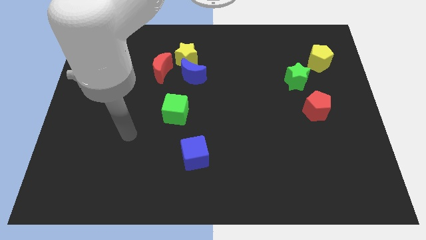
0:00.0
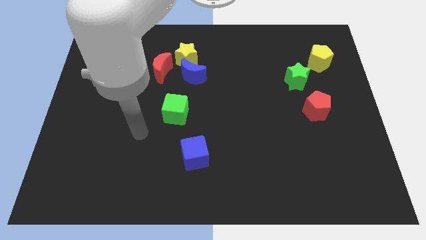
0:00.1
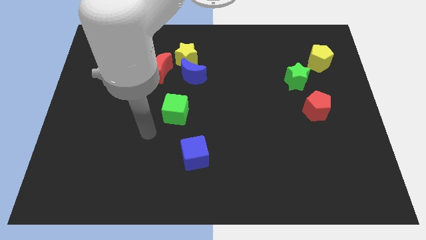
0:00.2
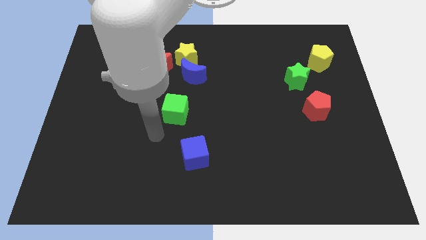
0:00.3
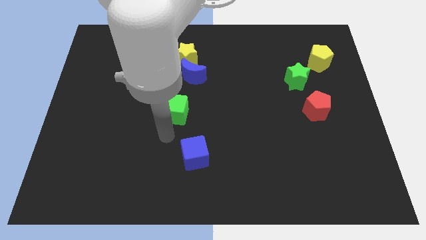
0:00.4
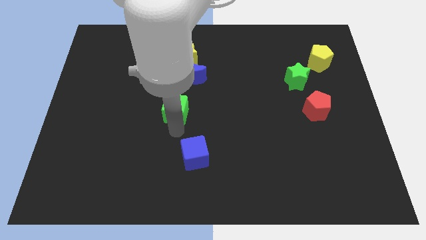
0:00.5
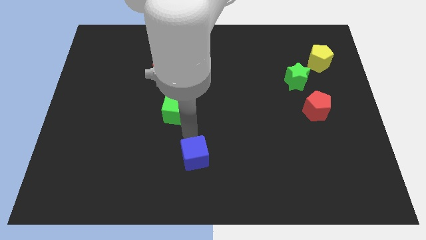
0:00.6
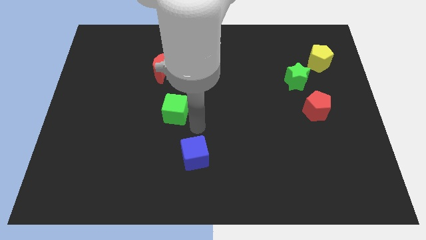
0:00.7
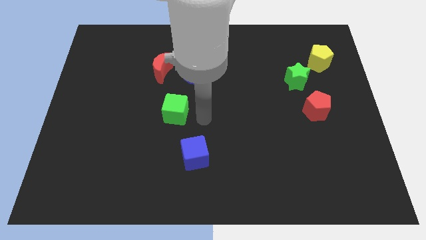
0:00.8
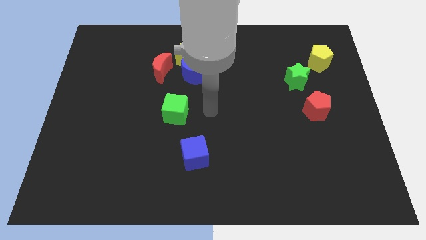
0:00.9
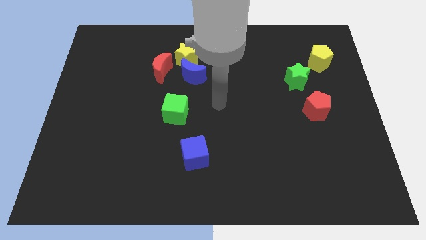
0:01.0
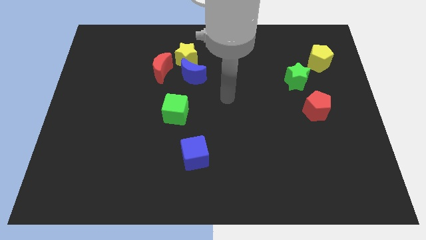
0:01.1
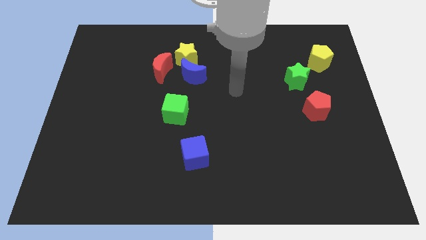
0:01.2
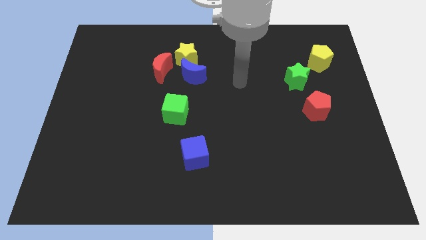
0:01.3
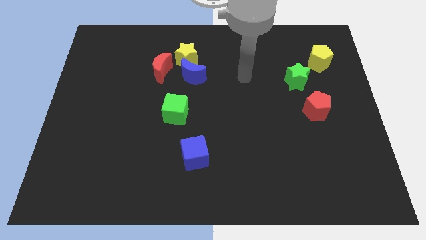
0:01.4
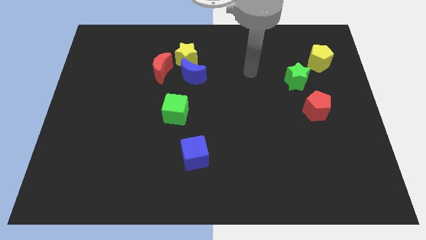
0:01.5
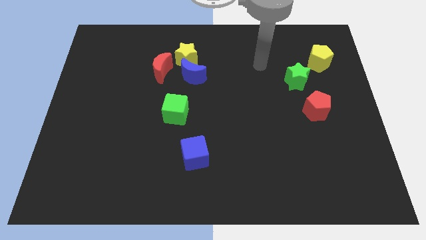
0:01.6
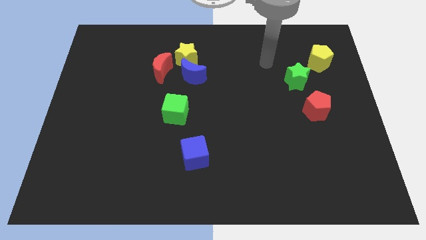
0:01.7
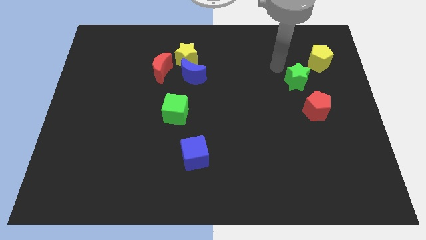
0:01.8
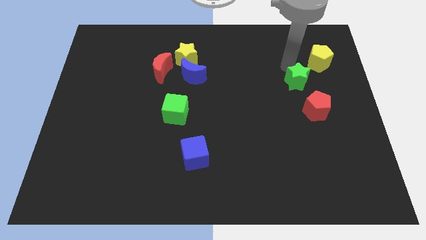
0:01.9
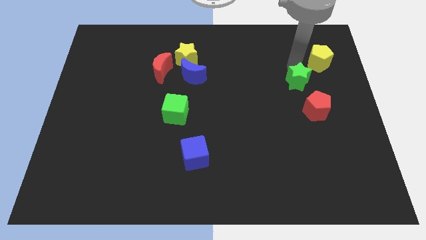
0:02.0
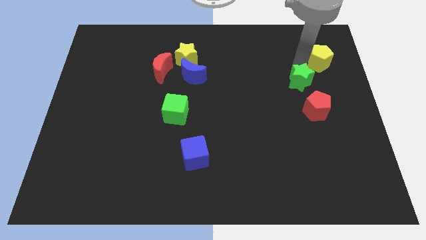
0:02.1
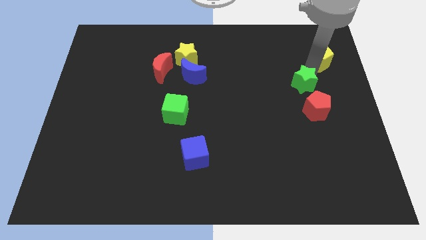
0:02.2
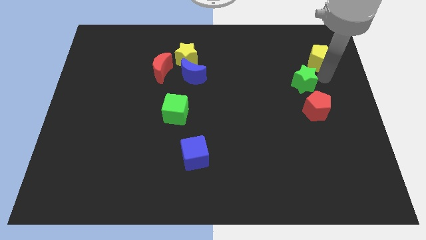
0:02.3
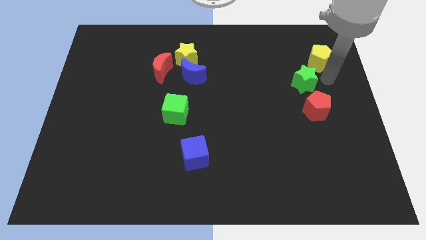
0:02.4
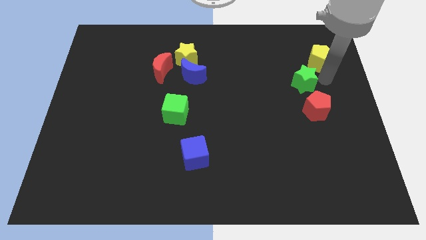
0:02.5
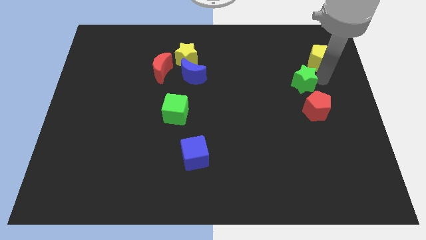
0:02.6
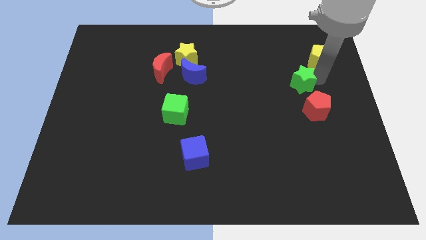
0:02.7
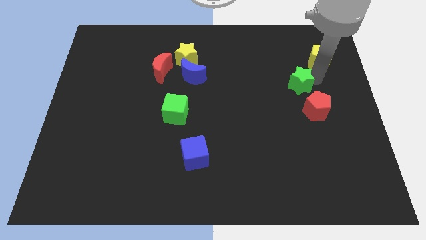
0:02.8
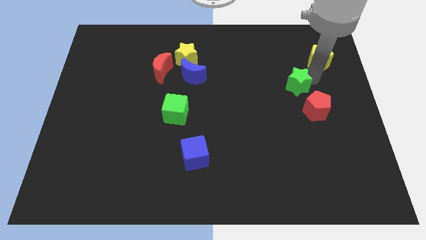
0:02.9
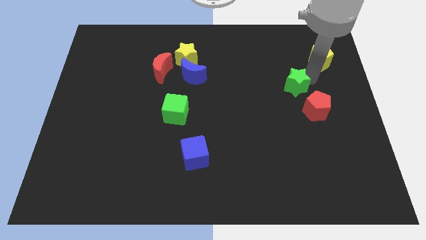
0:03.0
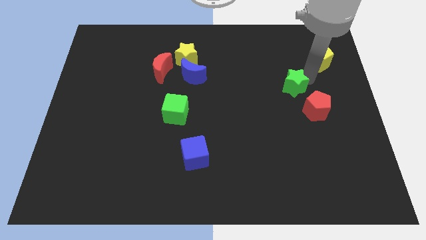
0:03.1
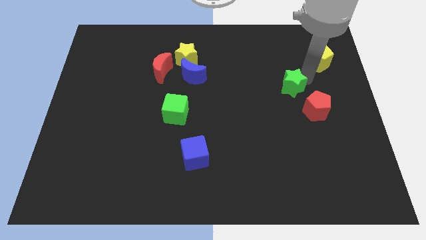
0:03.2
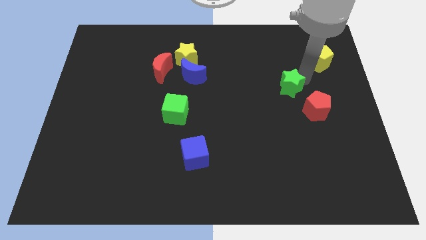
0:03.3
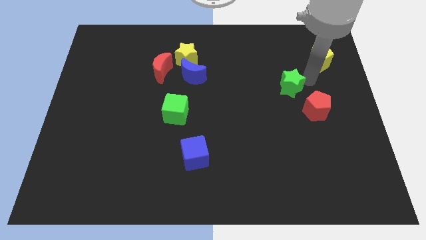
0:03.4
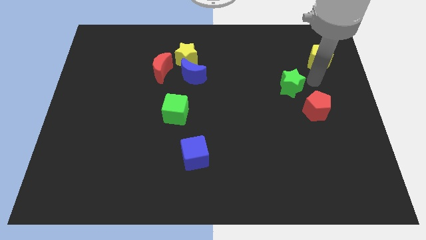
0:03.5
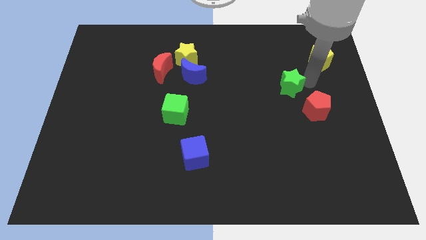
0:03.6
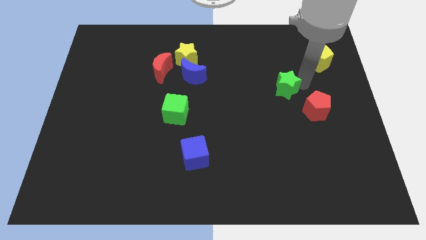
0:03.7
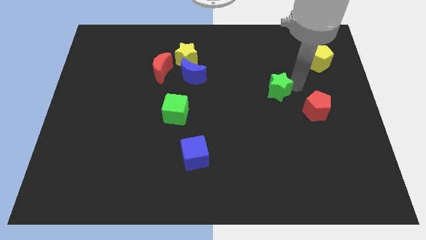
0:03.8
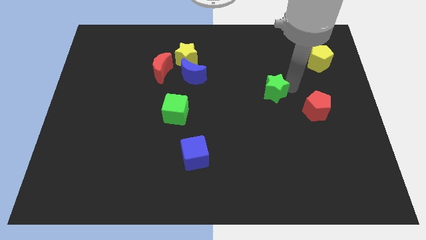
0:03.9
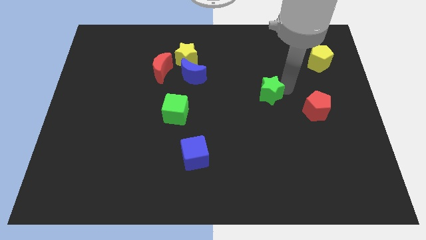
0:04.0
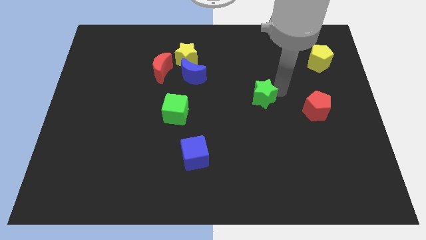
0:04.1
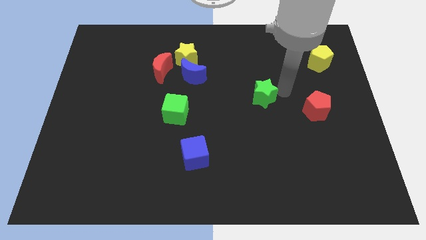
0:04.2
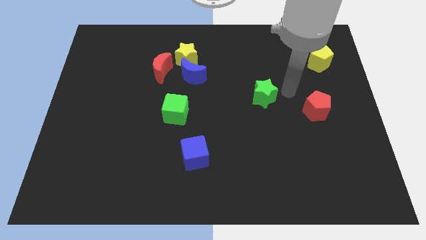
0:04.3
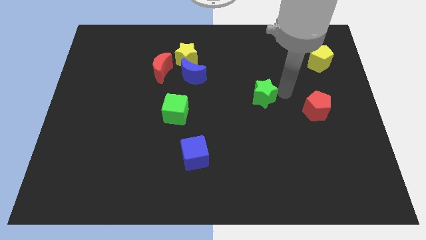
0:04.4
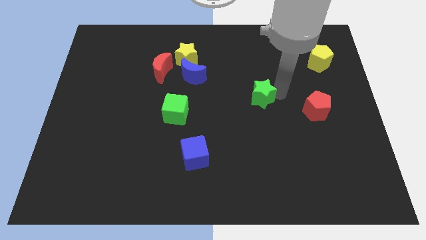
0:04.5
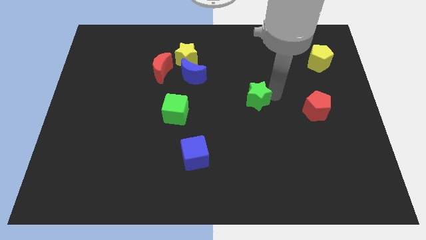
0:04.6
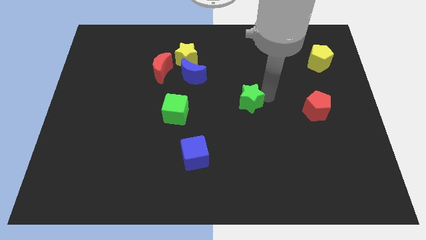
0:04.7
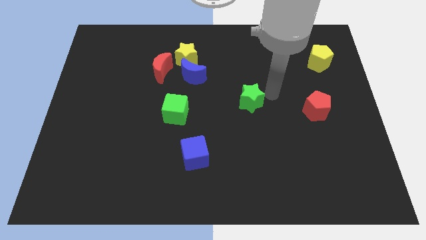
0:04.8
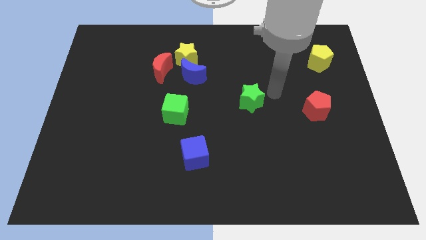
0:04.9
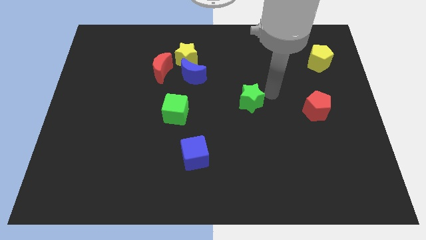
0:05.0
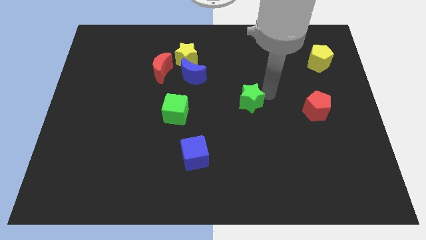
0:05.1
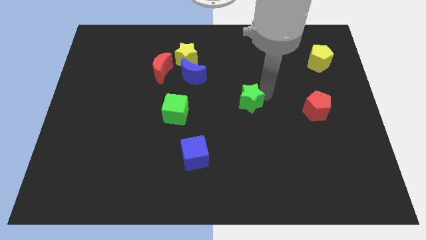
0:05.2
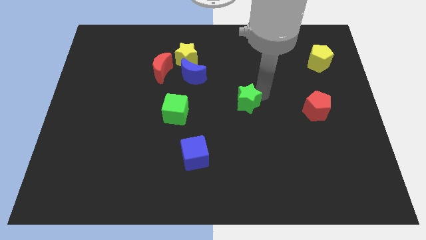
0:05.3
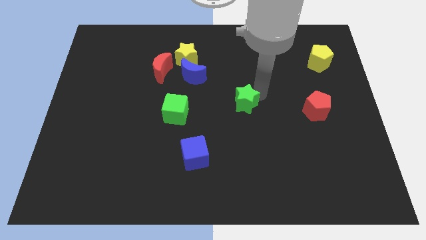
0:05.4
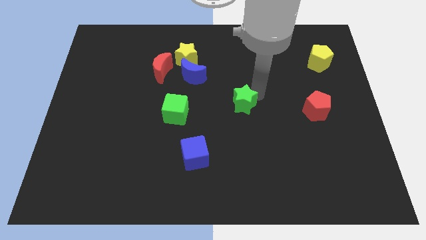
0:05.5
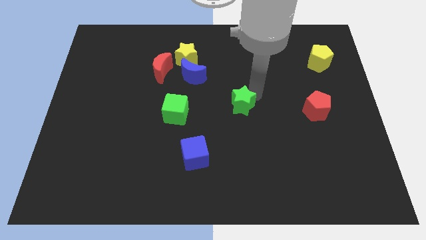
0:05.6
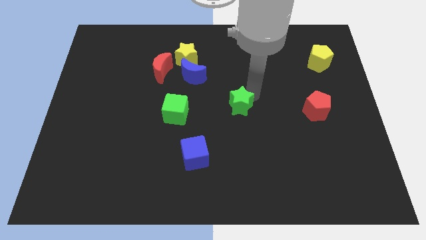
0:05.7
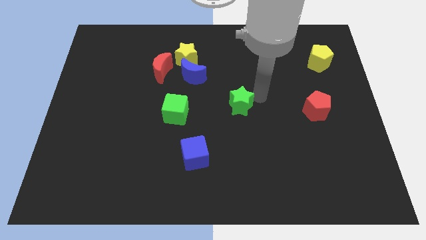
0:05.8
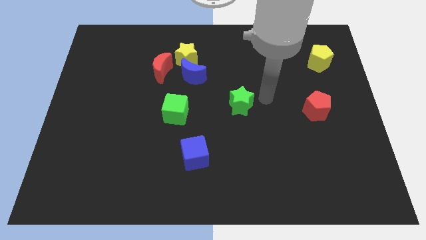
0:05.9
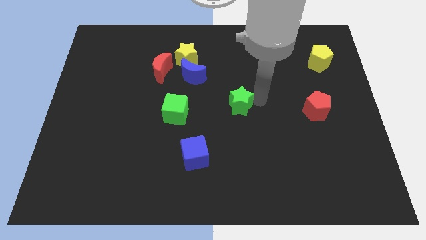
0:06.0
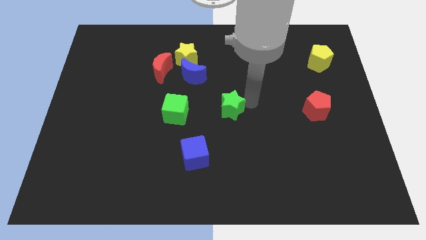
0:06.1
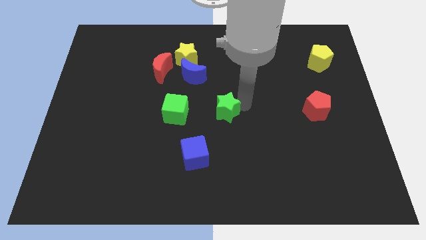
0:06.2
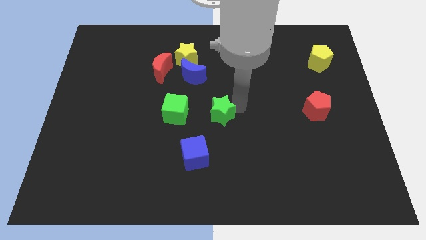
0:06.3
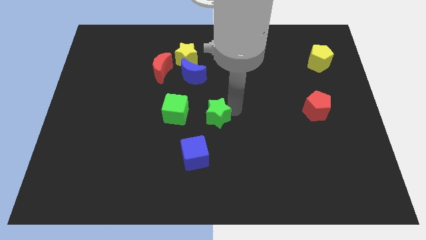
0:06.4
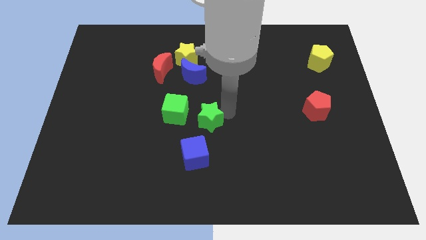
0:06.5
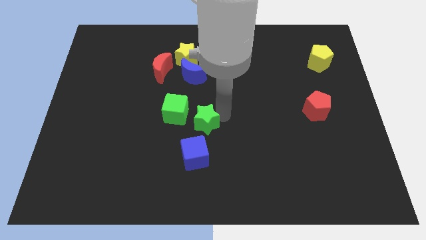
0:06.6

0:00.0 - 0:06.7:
push the green star below the blue moon
